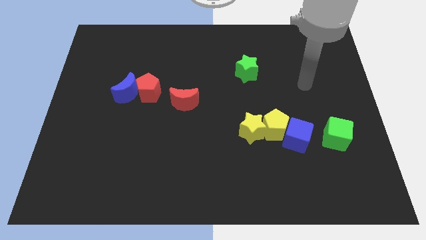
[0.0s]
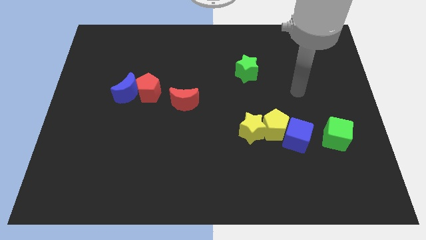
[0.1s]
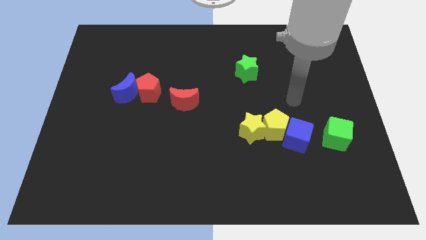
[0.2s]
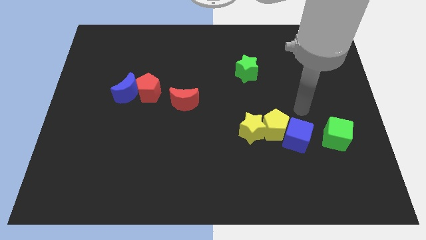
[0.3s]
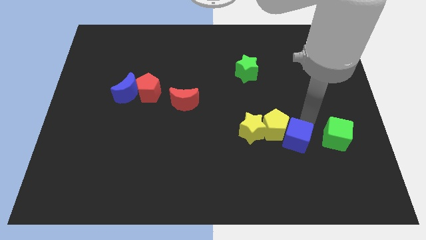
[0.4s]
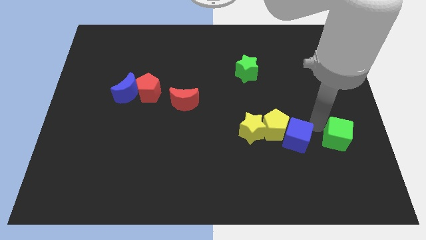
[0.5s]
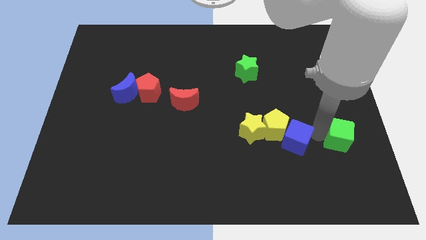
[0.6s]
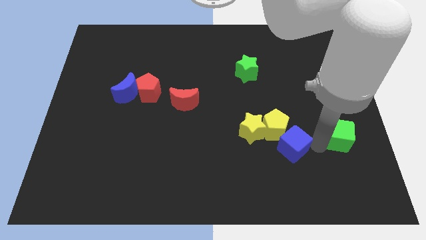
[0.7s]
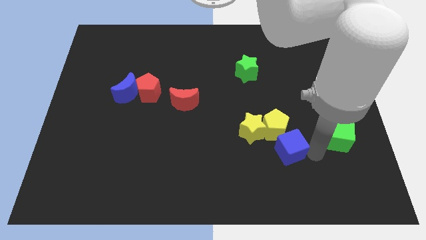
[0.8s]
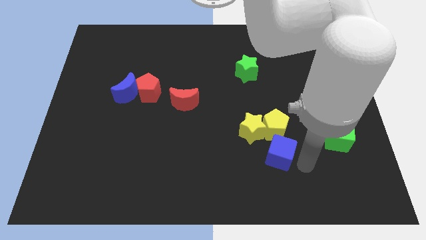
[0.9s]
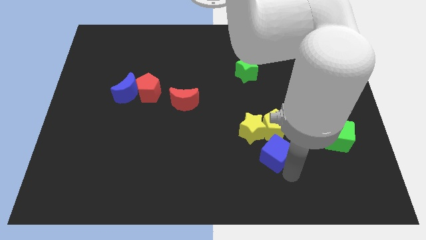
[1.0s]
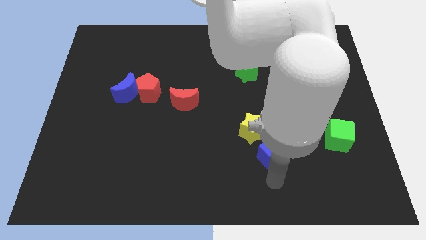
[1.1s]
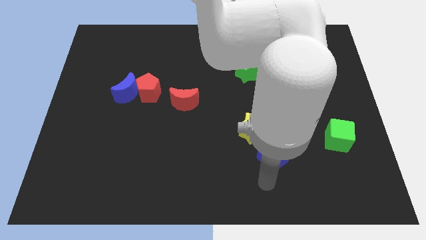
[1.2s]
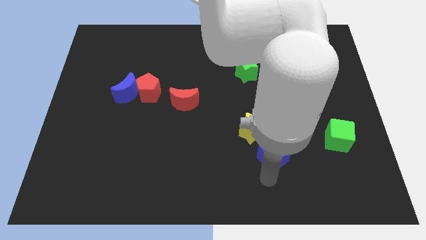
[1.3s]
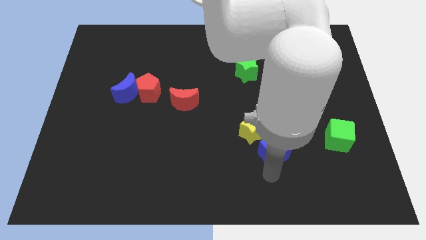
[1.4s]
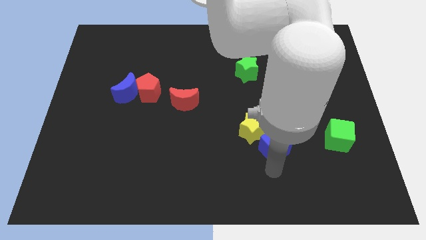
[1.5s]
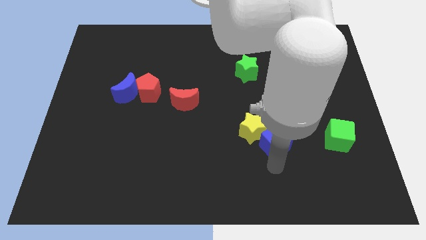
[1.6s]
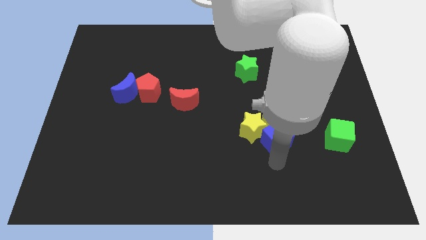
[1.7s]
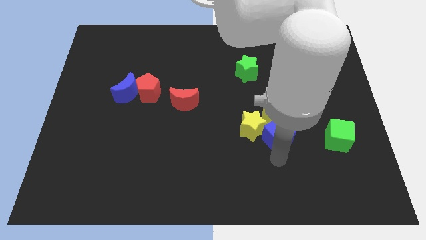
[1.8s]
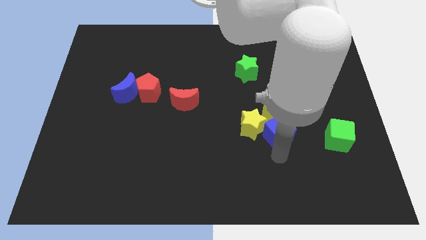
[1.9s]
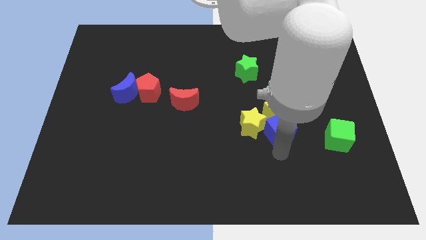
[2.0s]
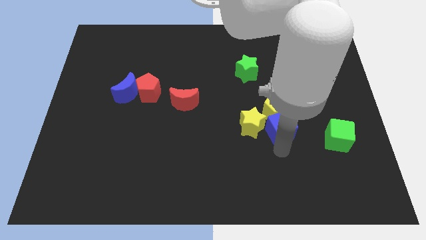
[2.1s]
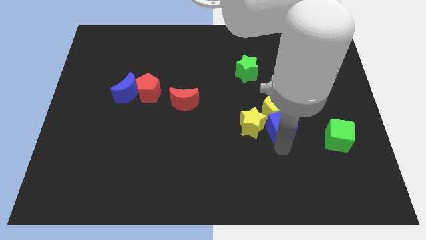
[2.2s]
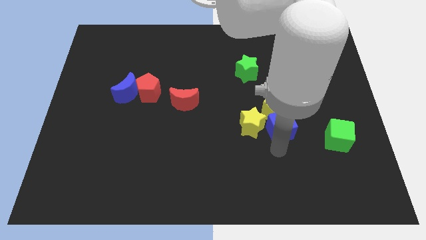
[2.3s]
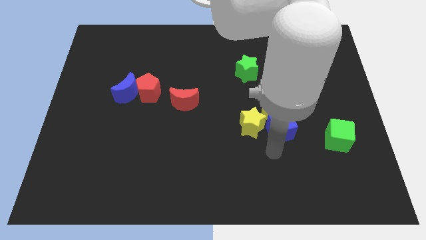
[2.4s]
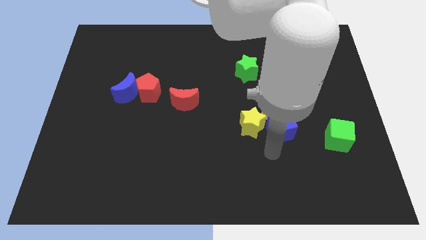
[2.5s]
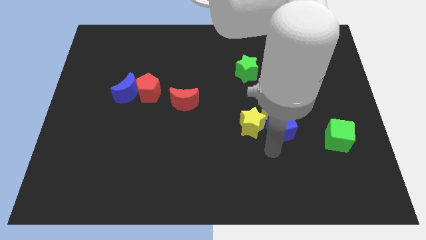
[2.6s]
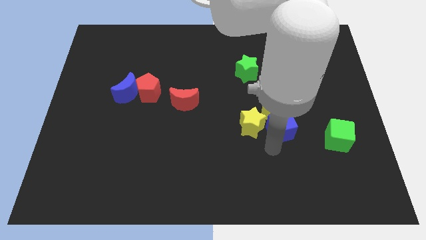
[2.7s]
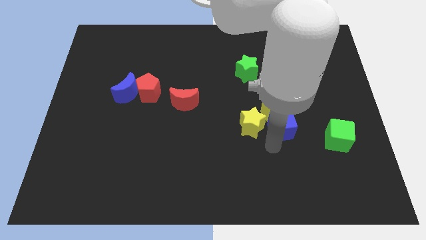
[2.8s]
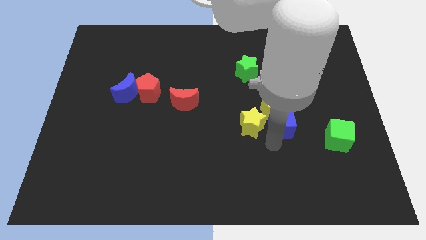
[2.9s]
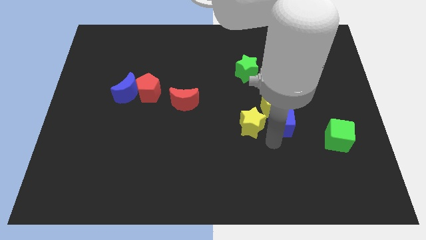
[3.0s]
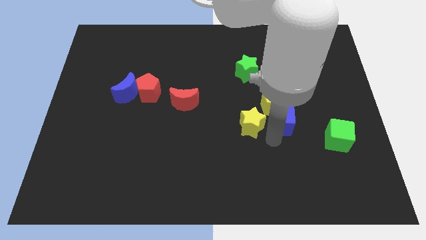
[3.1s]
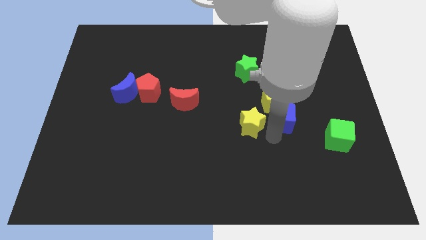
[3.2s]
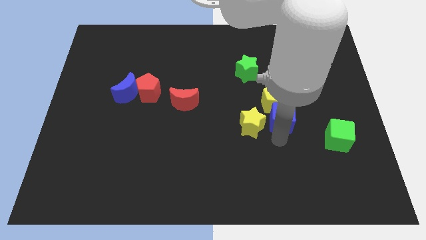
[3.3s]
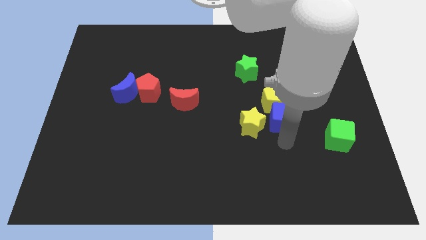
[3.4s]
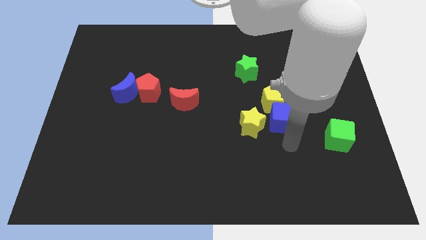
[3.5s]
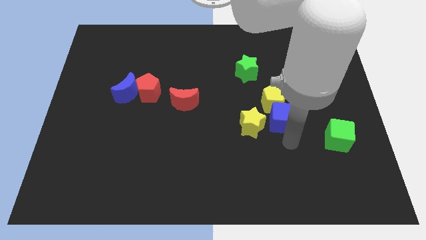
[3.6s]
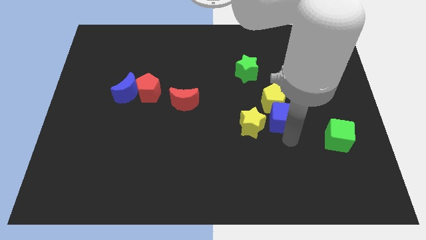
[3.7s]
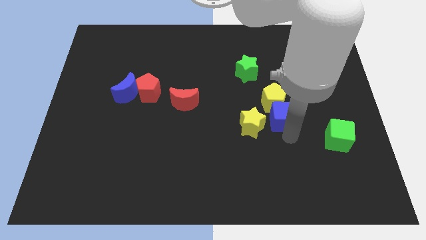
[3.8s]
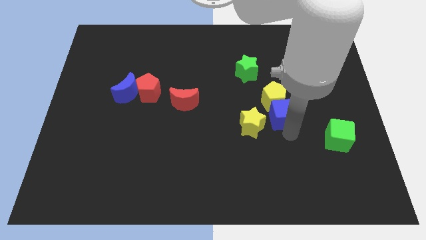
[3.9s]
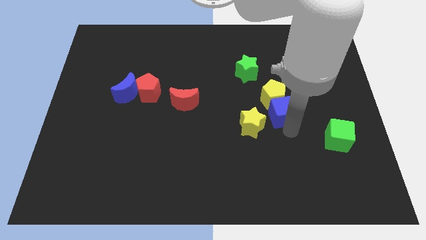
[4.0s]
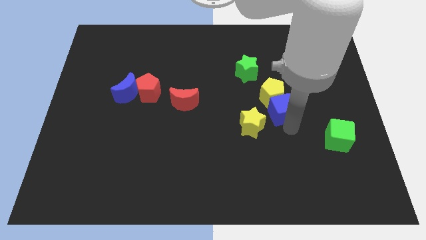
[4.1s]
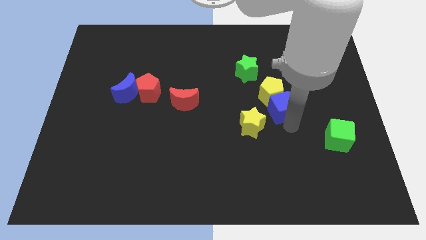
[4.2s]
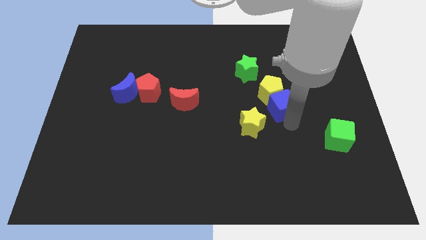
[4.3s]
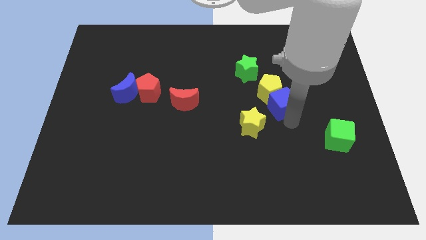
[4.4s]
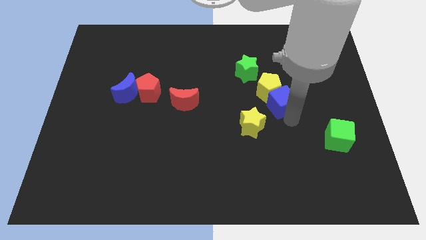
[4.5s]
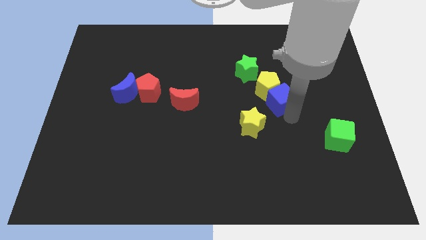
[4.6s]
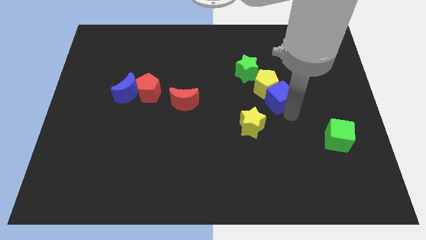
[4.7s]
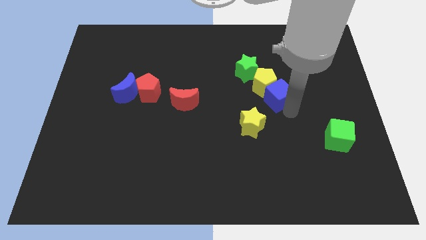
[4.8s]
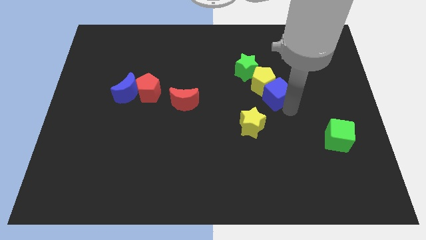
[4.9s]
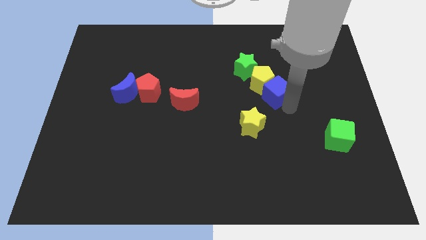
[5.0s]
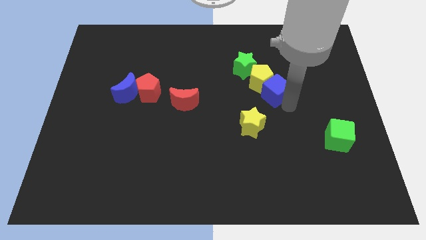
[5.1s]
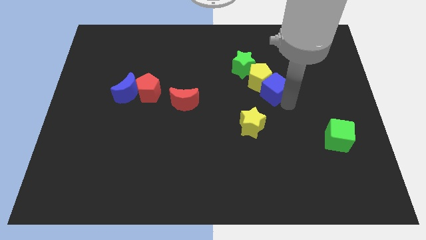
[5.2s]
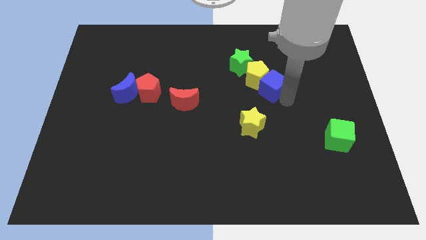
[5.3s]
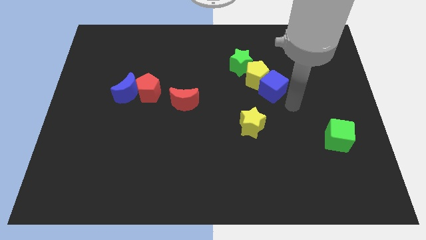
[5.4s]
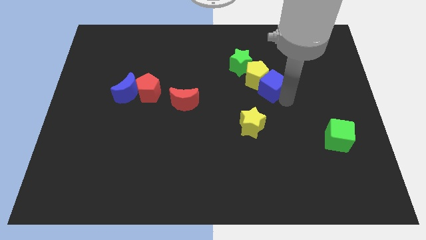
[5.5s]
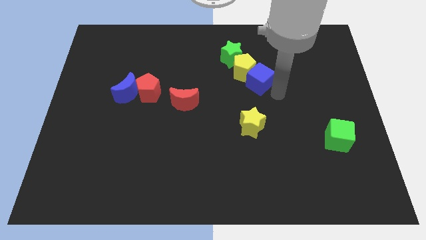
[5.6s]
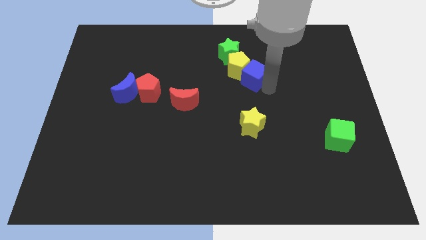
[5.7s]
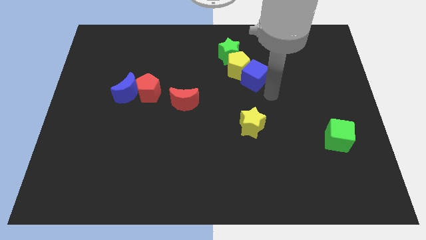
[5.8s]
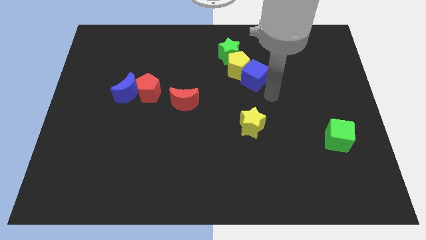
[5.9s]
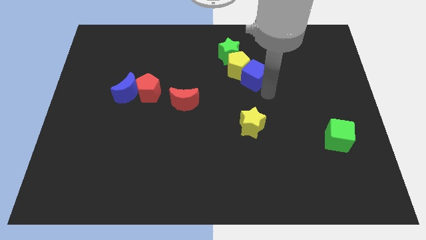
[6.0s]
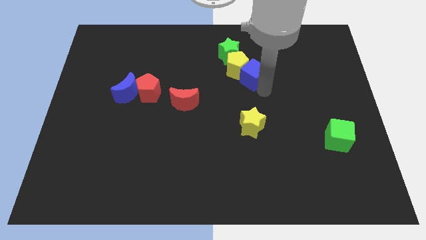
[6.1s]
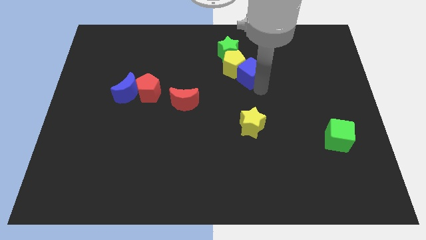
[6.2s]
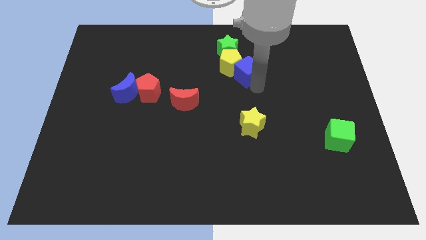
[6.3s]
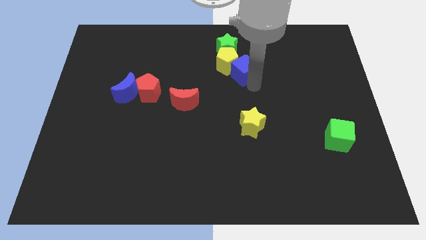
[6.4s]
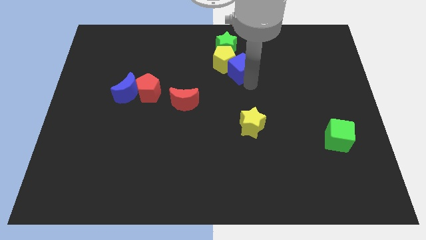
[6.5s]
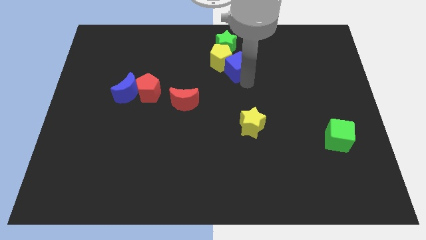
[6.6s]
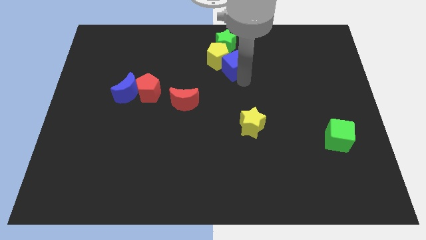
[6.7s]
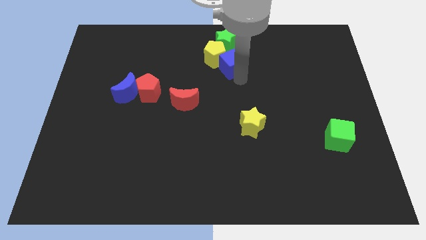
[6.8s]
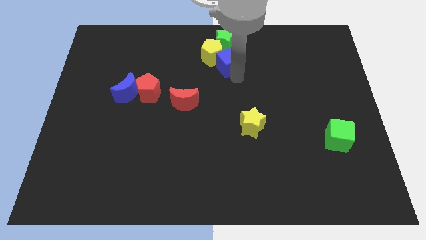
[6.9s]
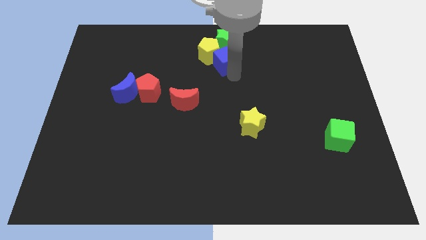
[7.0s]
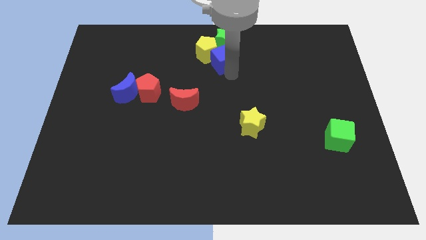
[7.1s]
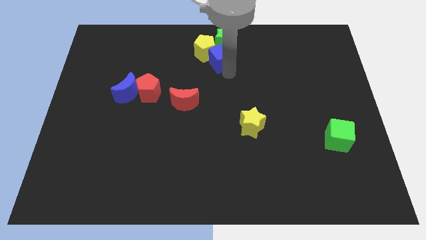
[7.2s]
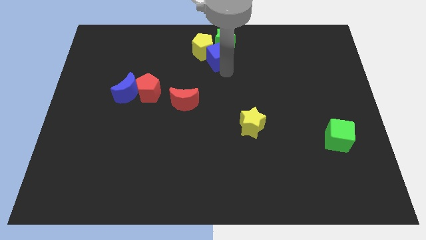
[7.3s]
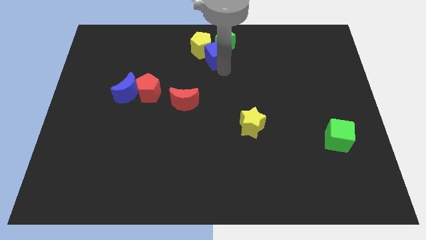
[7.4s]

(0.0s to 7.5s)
slide the blue cube next to the green star
